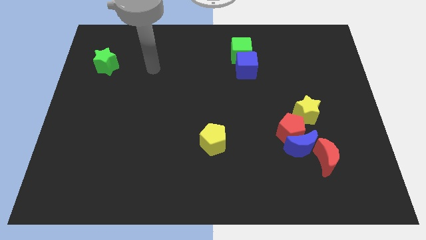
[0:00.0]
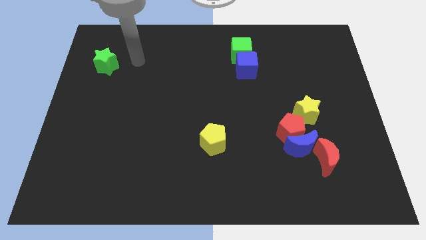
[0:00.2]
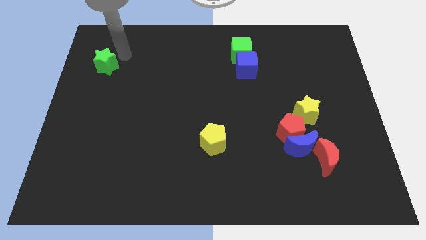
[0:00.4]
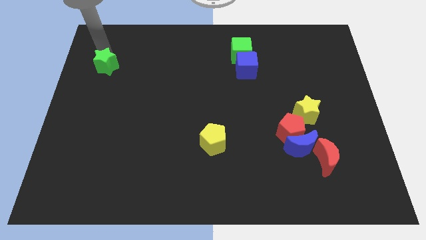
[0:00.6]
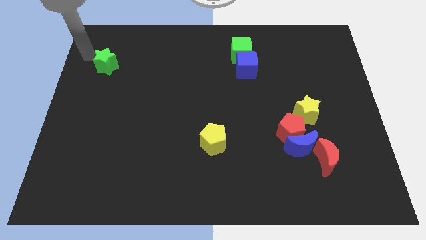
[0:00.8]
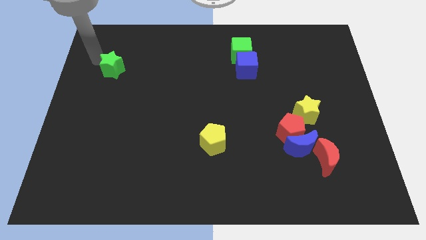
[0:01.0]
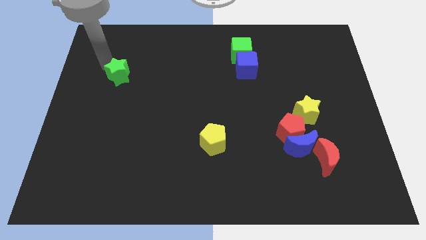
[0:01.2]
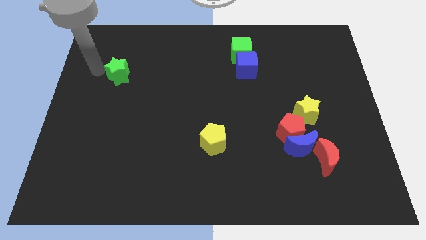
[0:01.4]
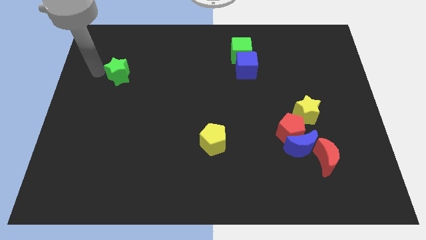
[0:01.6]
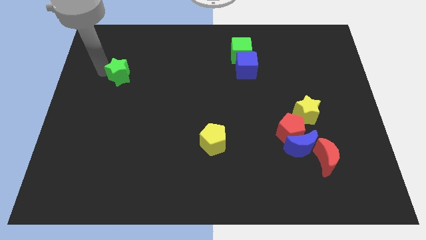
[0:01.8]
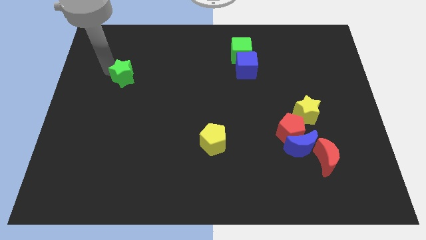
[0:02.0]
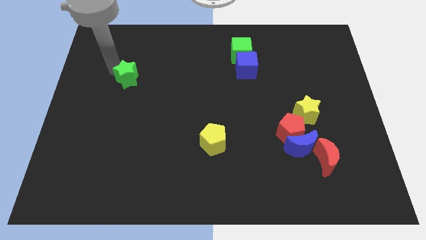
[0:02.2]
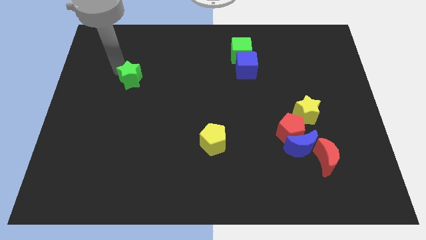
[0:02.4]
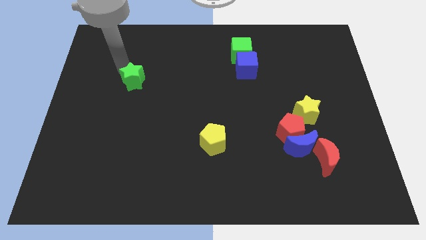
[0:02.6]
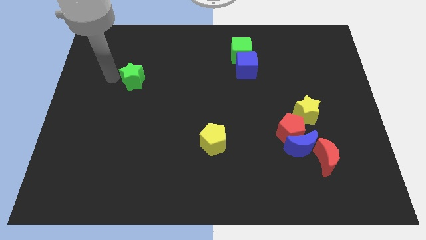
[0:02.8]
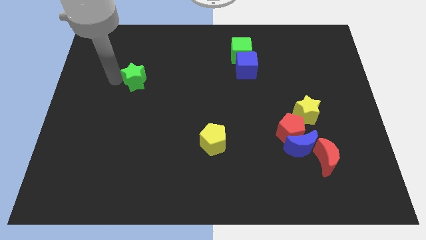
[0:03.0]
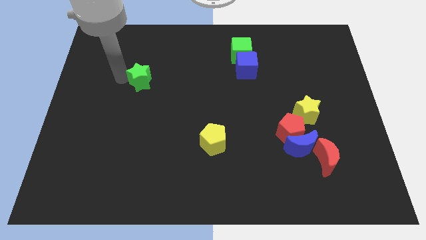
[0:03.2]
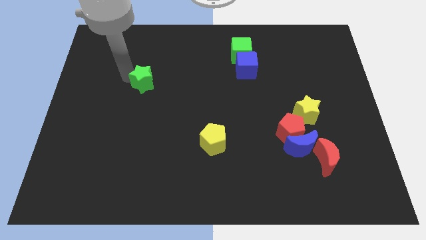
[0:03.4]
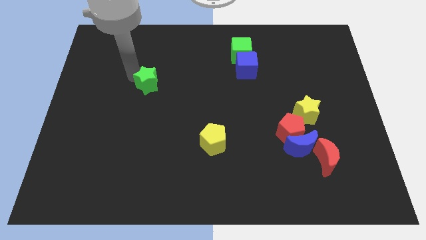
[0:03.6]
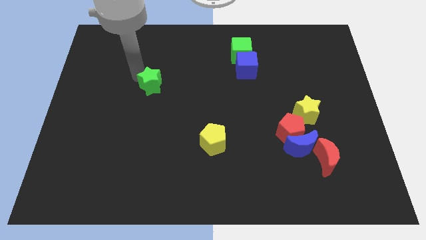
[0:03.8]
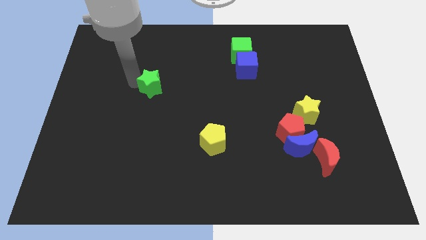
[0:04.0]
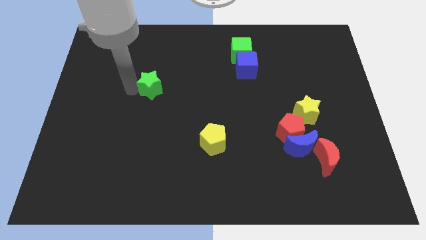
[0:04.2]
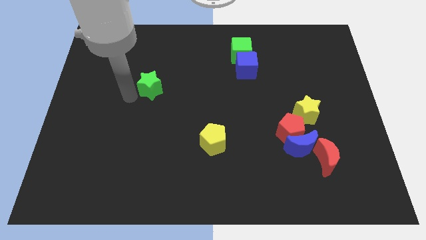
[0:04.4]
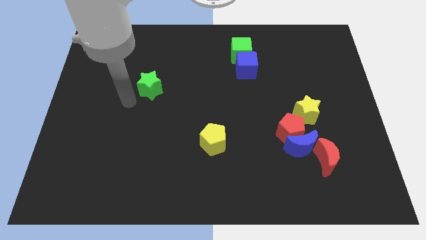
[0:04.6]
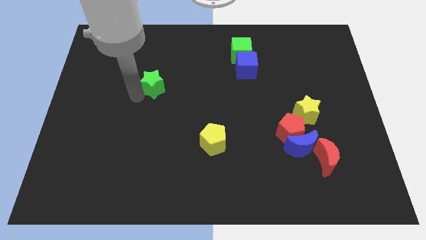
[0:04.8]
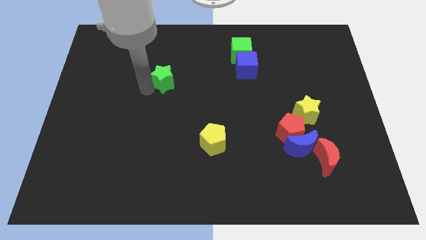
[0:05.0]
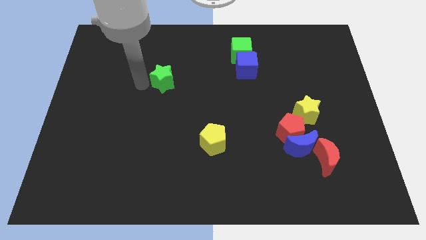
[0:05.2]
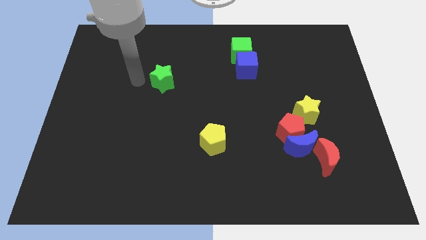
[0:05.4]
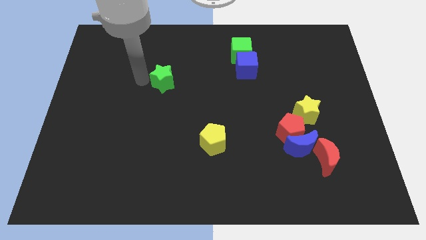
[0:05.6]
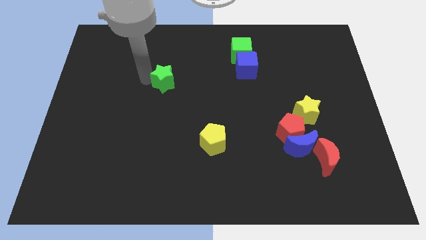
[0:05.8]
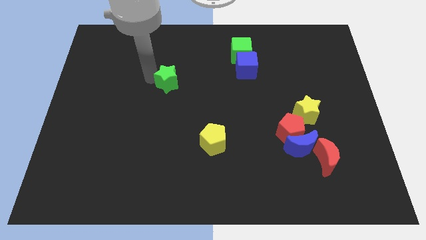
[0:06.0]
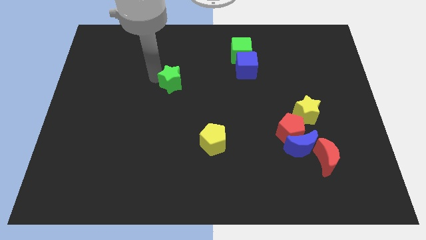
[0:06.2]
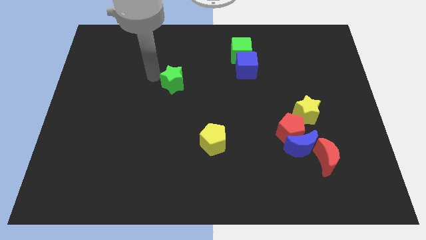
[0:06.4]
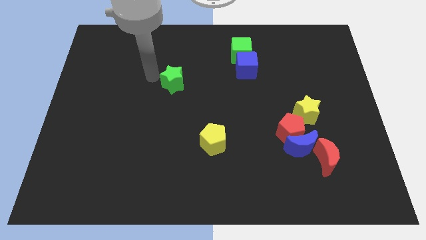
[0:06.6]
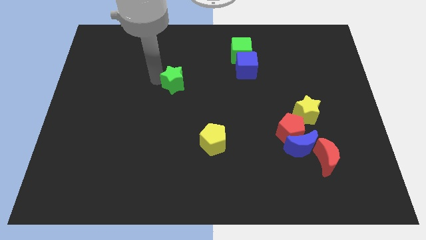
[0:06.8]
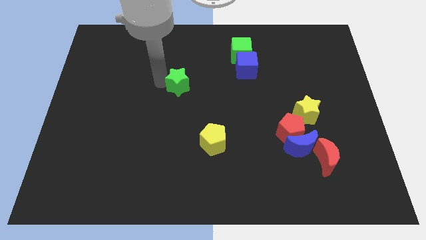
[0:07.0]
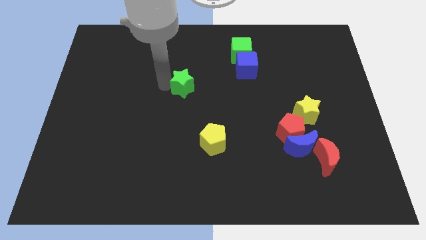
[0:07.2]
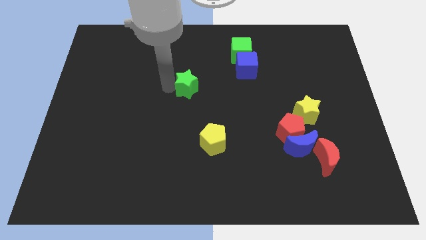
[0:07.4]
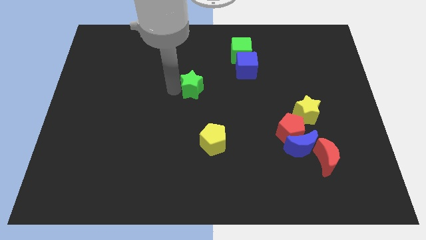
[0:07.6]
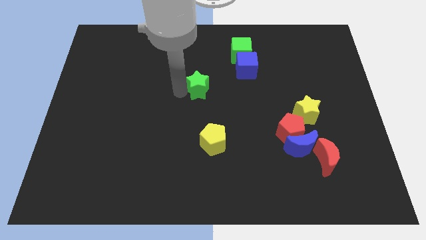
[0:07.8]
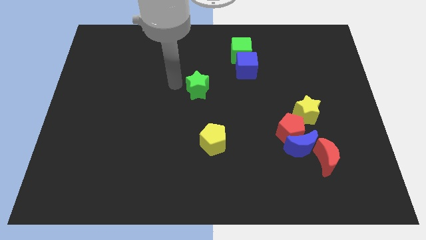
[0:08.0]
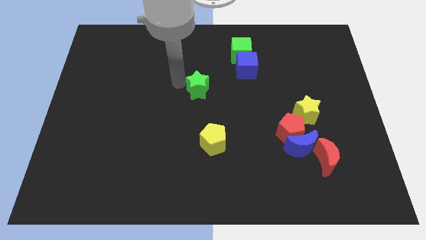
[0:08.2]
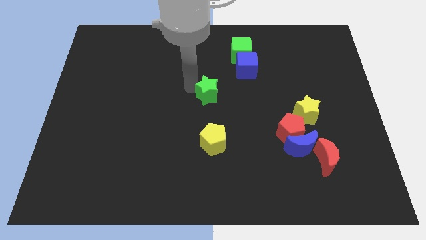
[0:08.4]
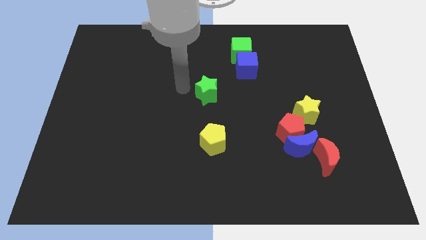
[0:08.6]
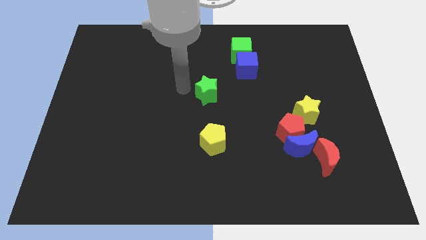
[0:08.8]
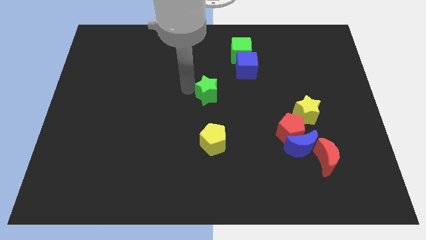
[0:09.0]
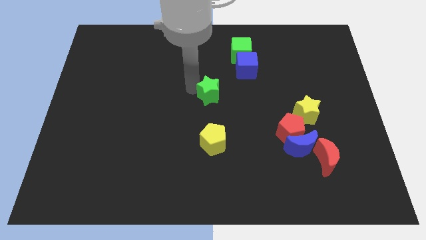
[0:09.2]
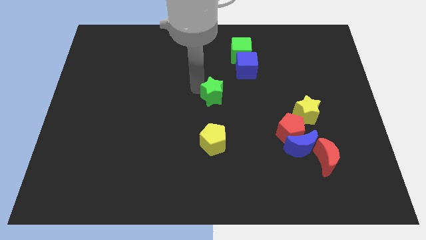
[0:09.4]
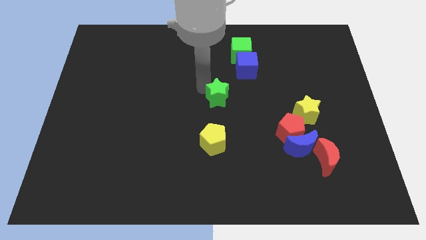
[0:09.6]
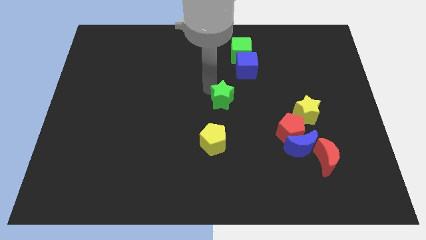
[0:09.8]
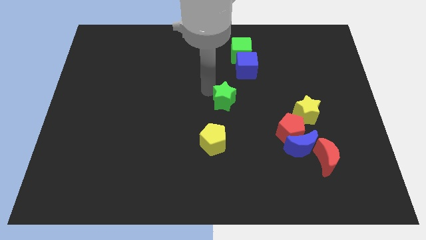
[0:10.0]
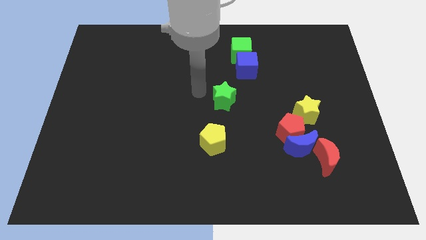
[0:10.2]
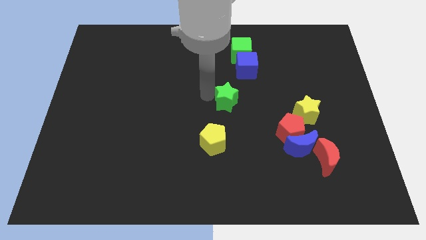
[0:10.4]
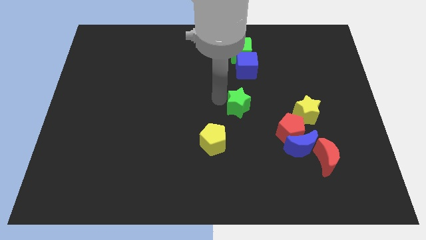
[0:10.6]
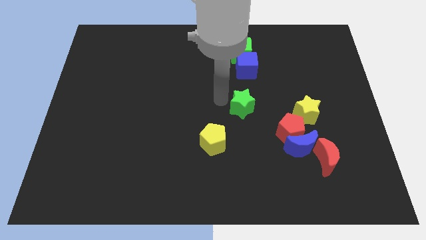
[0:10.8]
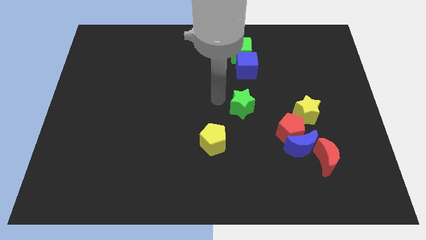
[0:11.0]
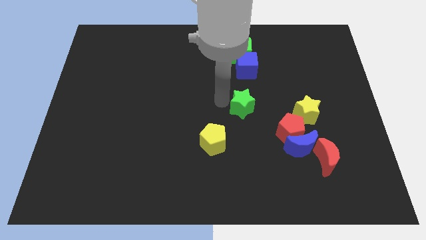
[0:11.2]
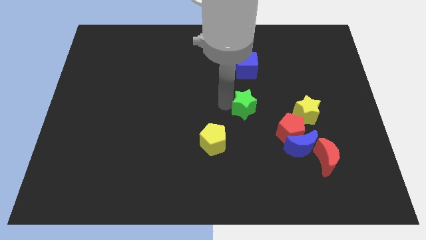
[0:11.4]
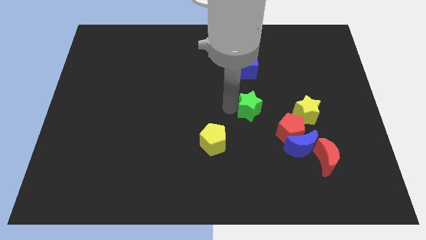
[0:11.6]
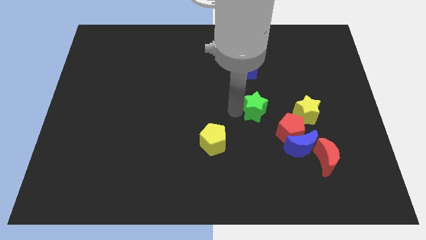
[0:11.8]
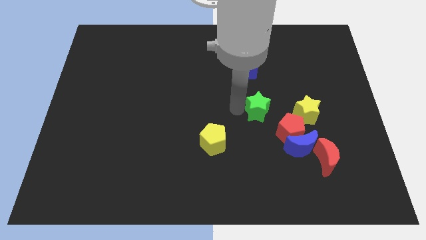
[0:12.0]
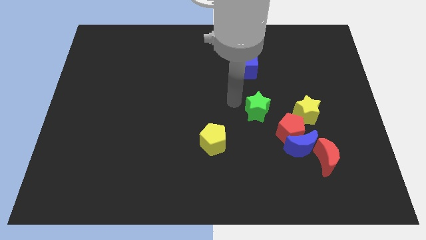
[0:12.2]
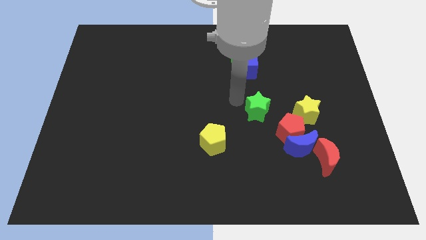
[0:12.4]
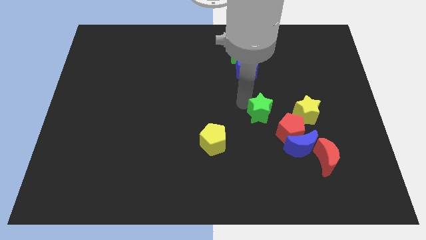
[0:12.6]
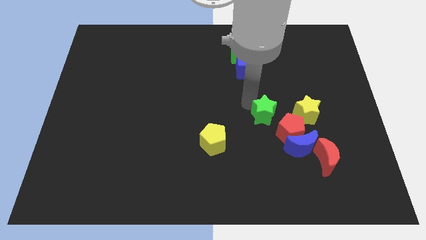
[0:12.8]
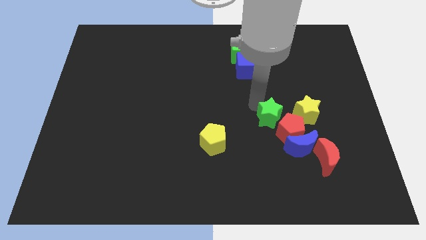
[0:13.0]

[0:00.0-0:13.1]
push the green star next to the red pentagon
